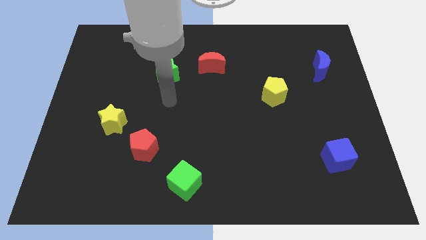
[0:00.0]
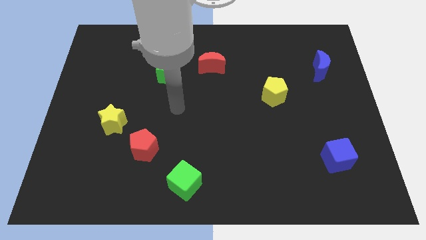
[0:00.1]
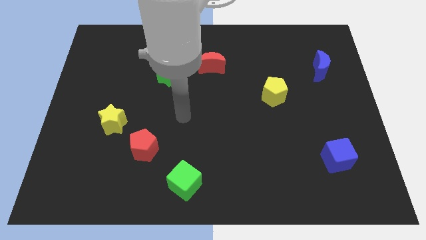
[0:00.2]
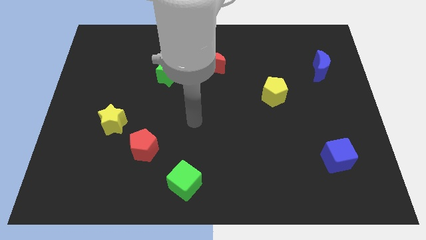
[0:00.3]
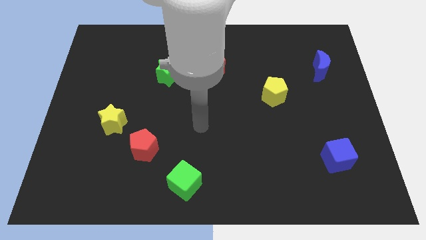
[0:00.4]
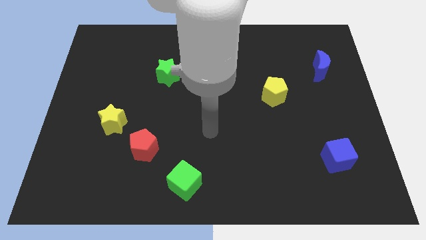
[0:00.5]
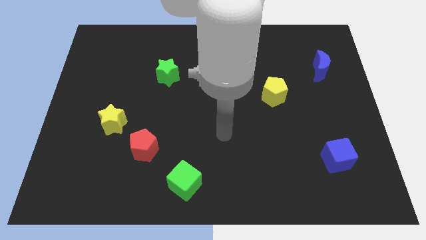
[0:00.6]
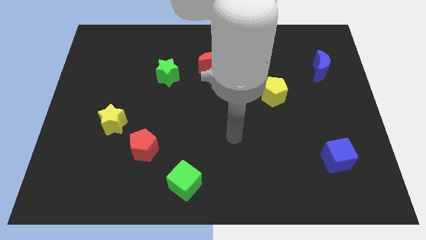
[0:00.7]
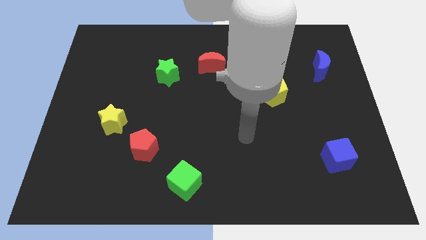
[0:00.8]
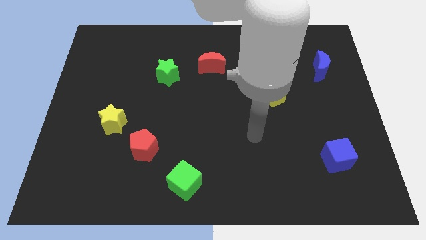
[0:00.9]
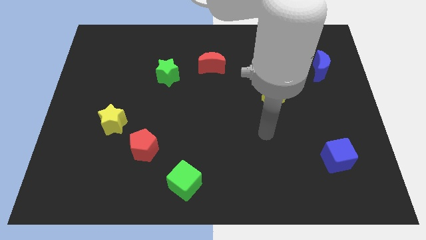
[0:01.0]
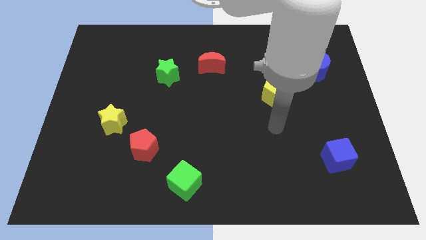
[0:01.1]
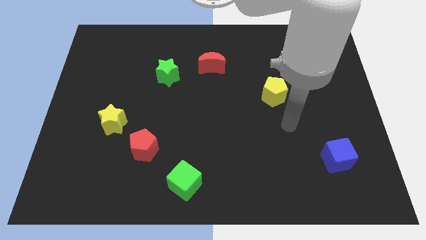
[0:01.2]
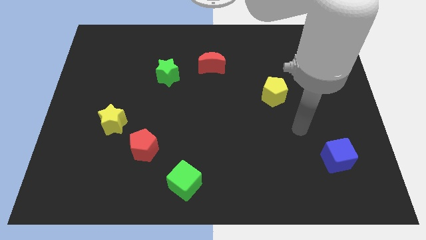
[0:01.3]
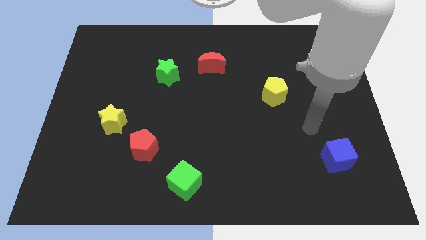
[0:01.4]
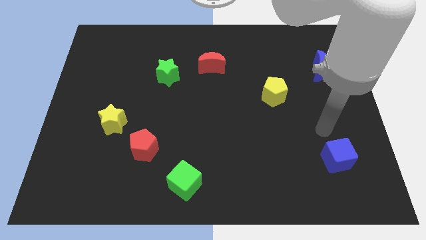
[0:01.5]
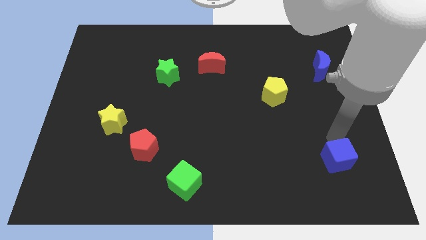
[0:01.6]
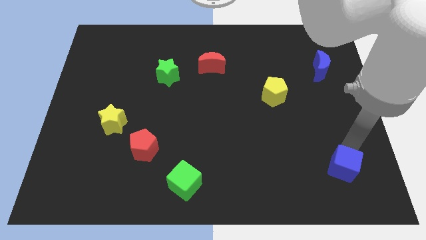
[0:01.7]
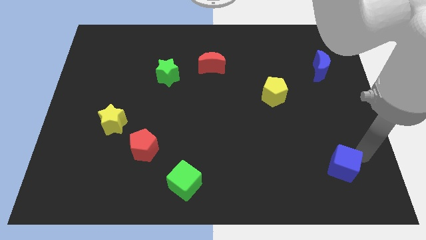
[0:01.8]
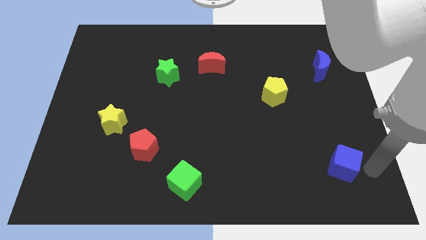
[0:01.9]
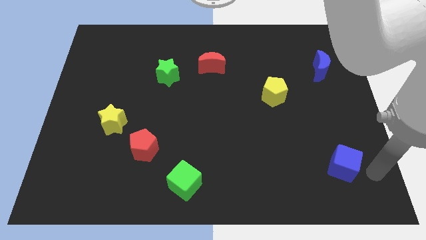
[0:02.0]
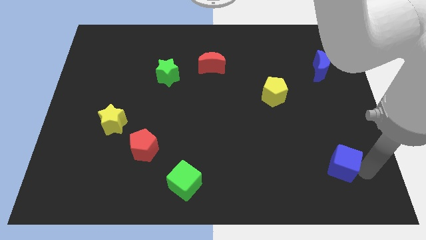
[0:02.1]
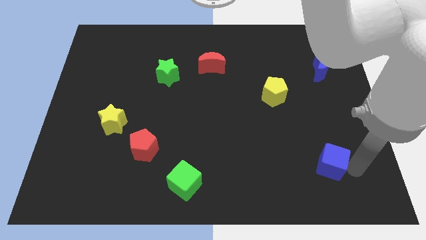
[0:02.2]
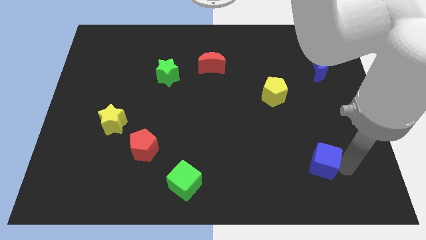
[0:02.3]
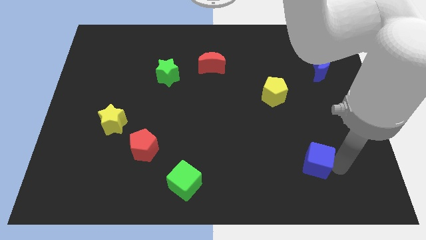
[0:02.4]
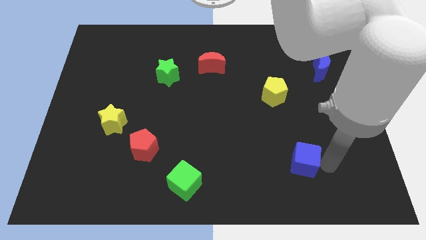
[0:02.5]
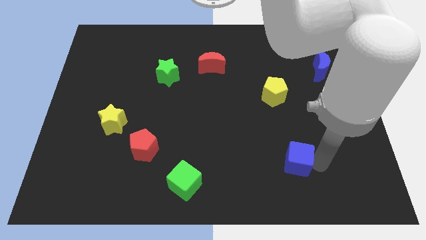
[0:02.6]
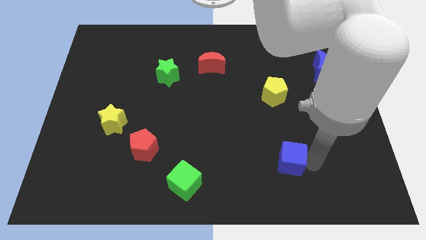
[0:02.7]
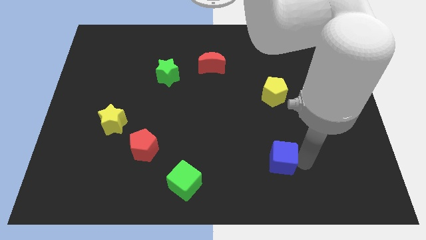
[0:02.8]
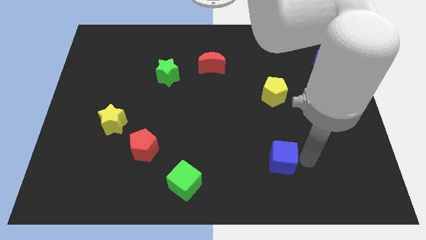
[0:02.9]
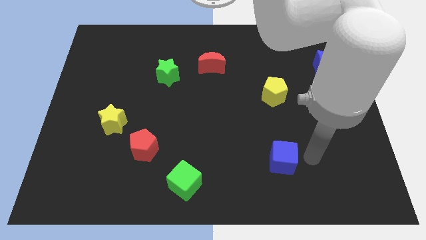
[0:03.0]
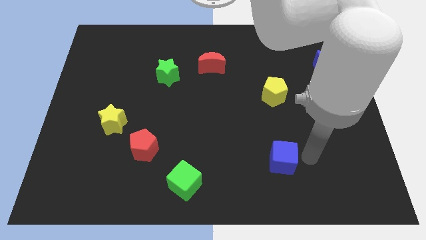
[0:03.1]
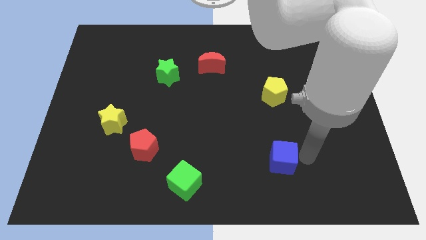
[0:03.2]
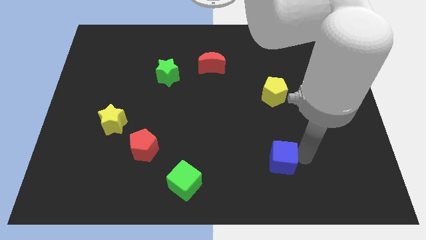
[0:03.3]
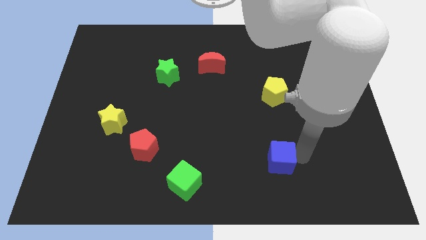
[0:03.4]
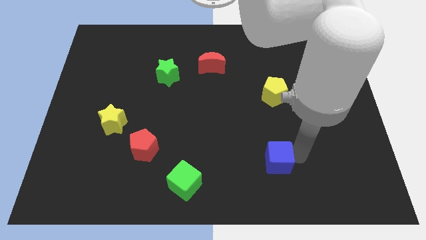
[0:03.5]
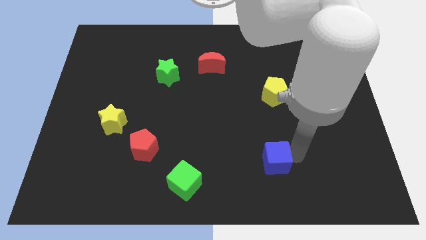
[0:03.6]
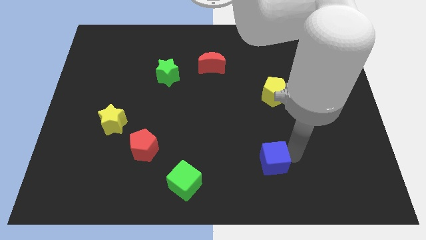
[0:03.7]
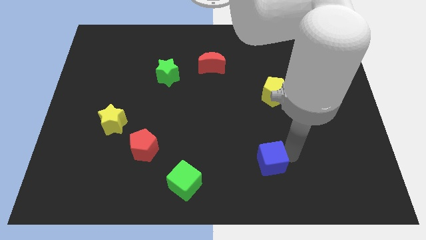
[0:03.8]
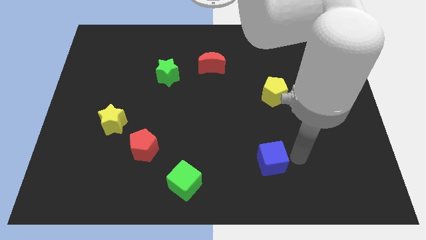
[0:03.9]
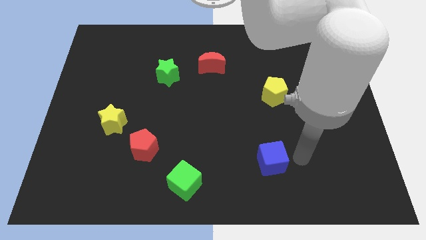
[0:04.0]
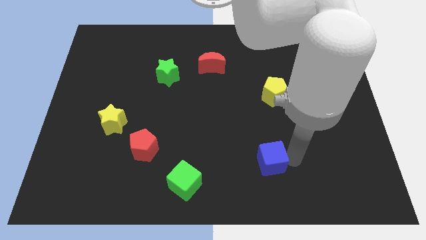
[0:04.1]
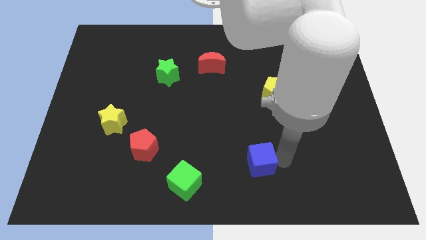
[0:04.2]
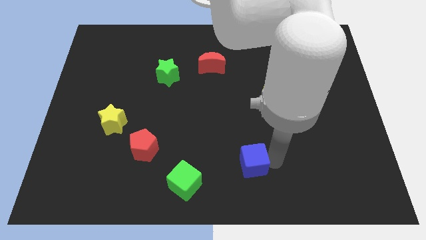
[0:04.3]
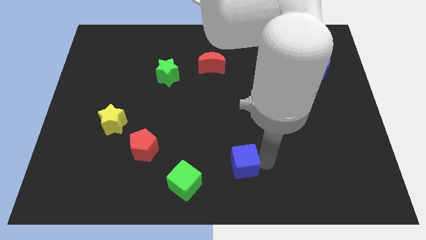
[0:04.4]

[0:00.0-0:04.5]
push the blue cube left

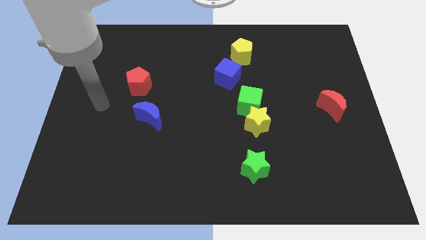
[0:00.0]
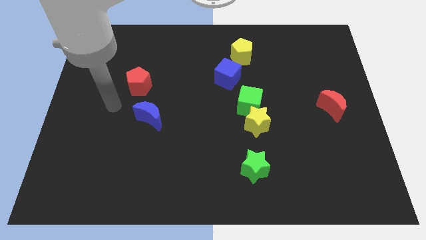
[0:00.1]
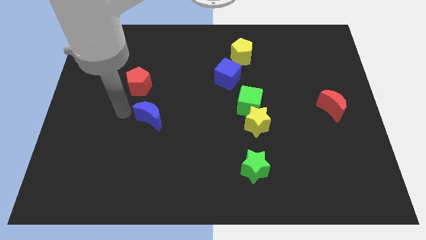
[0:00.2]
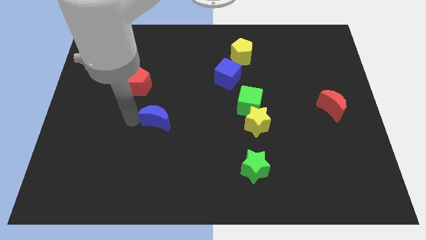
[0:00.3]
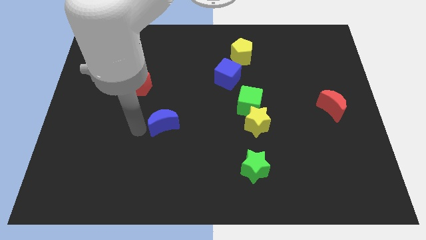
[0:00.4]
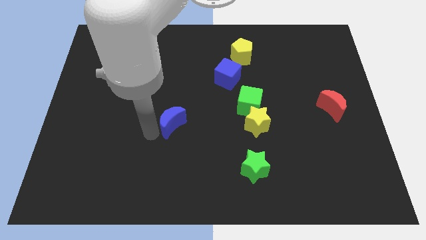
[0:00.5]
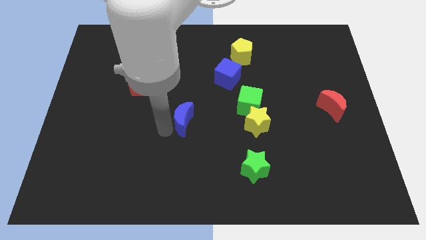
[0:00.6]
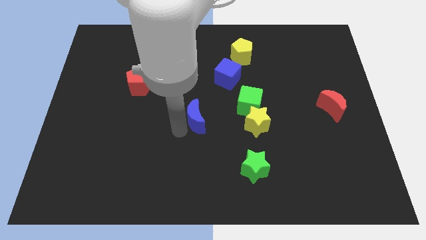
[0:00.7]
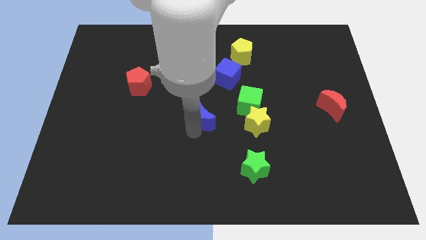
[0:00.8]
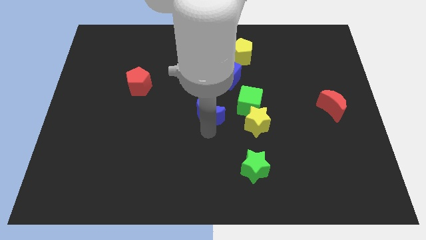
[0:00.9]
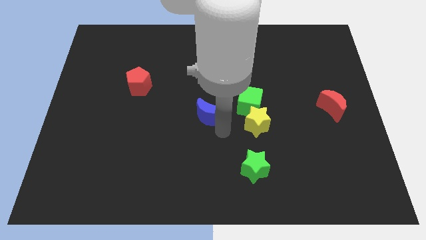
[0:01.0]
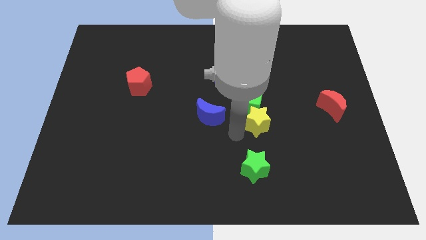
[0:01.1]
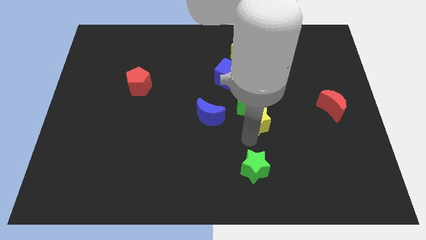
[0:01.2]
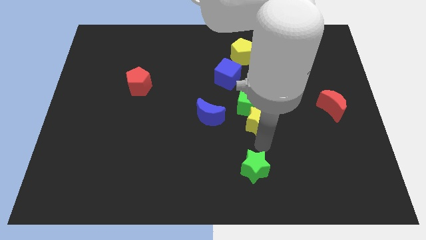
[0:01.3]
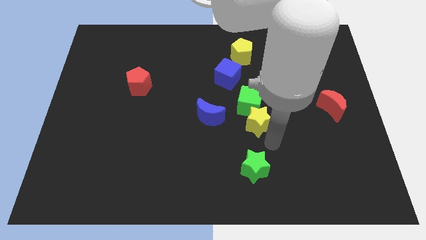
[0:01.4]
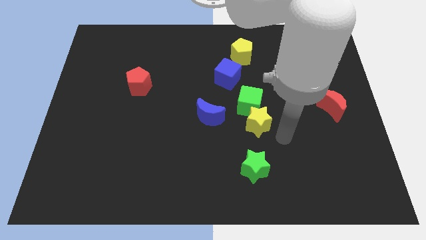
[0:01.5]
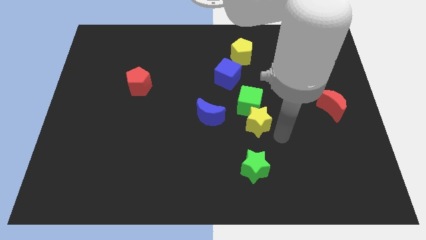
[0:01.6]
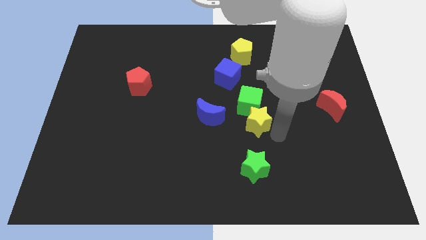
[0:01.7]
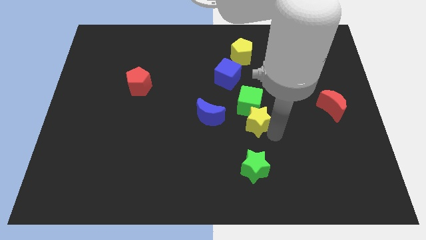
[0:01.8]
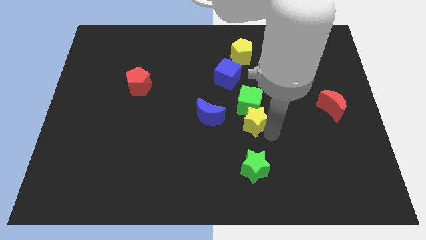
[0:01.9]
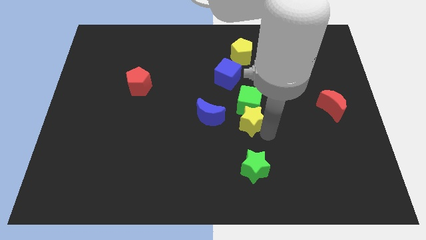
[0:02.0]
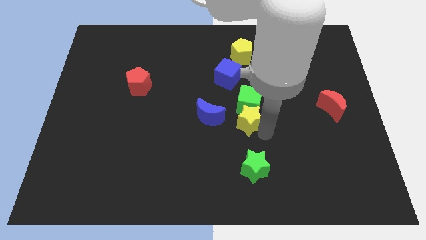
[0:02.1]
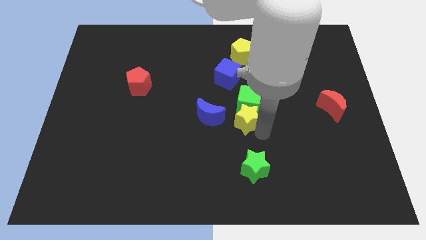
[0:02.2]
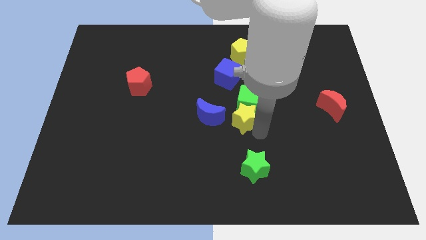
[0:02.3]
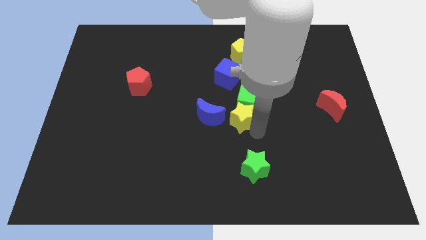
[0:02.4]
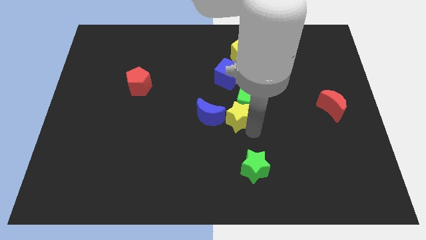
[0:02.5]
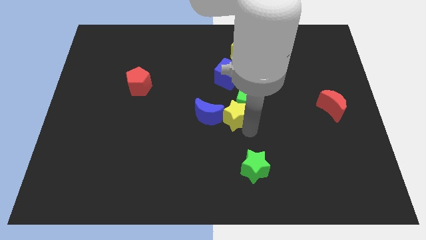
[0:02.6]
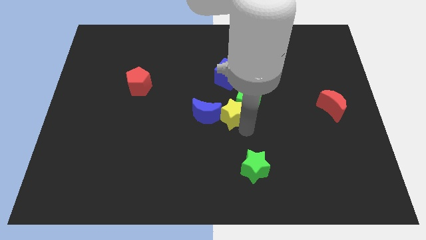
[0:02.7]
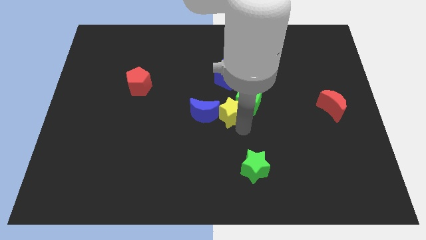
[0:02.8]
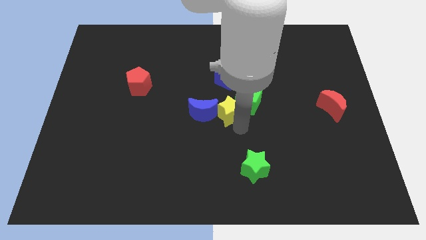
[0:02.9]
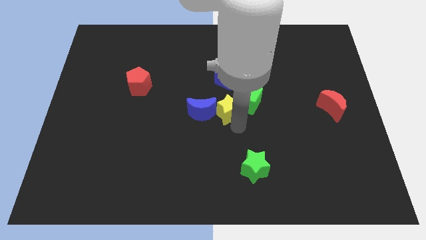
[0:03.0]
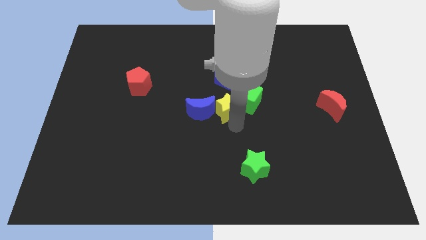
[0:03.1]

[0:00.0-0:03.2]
slide the yellow star upwards and left somewhat

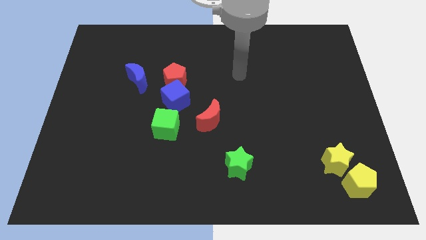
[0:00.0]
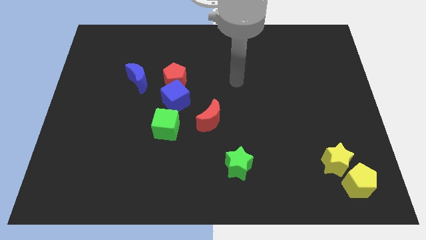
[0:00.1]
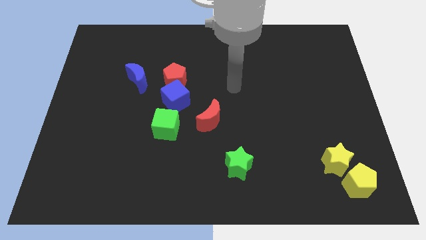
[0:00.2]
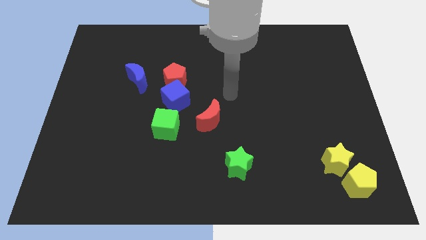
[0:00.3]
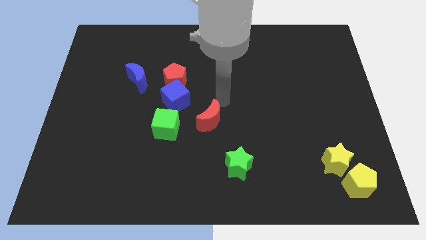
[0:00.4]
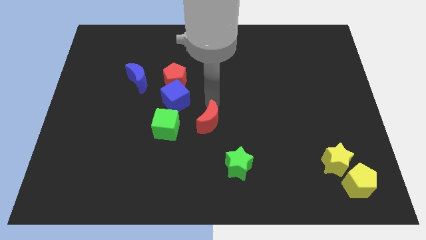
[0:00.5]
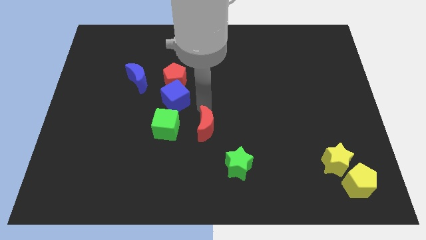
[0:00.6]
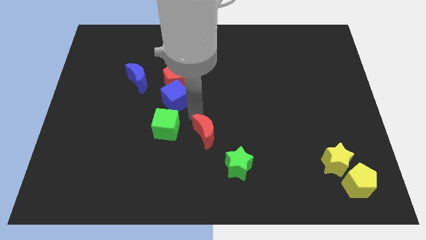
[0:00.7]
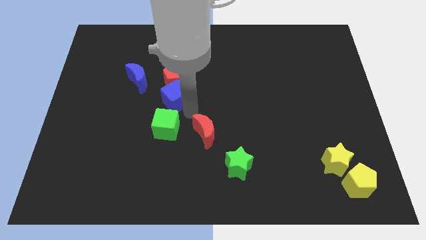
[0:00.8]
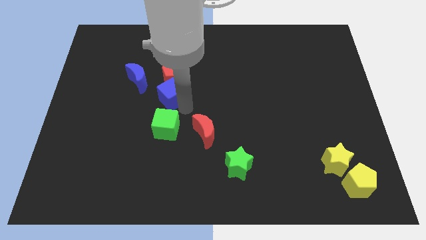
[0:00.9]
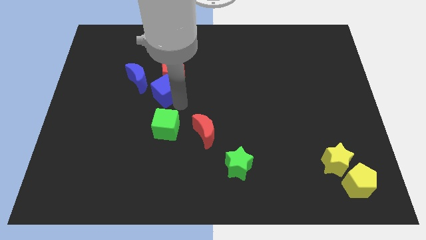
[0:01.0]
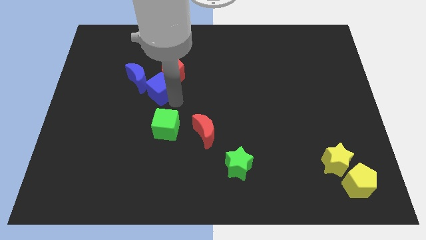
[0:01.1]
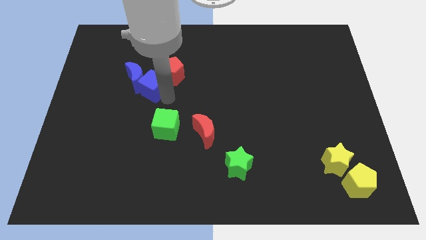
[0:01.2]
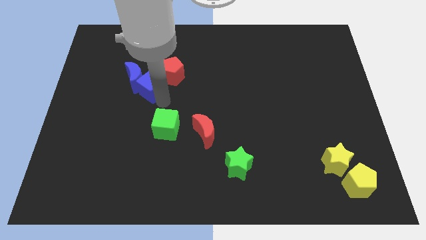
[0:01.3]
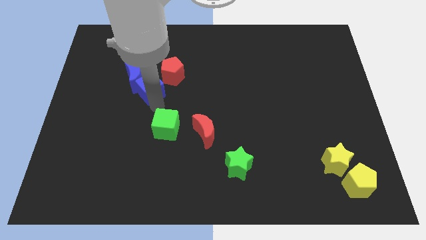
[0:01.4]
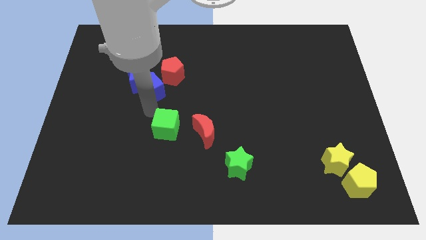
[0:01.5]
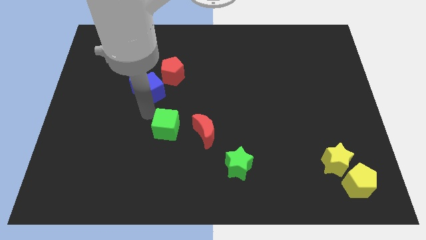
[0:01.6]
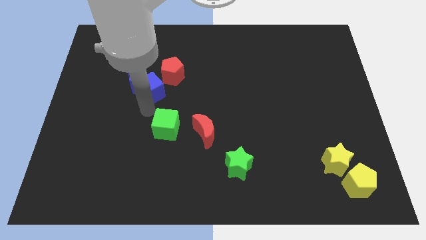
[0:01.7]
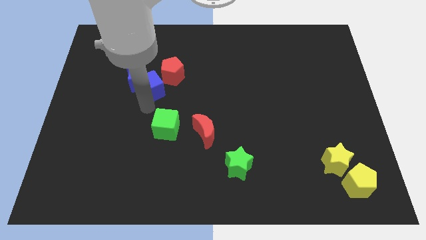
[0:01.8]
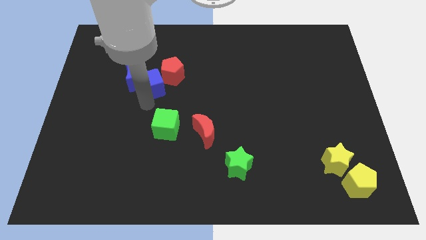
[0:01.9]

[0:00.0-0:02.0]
slide the blue cube up and to the left diagonally slightly
